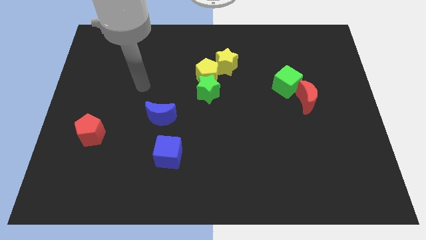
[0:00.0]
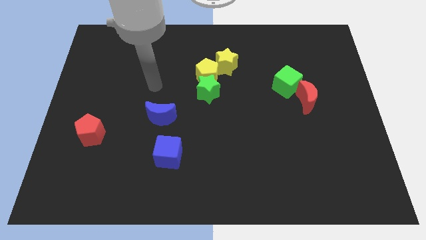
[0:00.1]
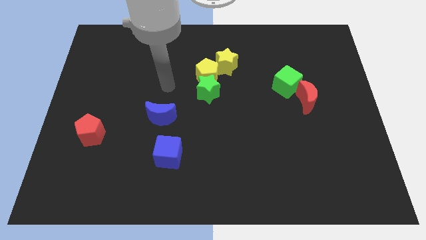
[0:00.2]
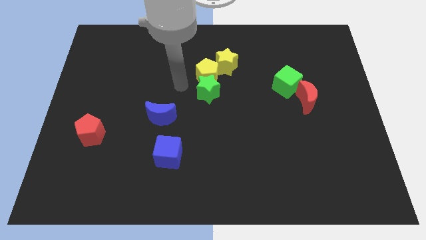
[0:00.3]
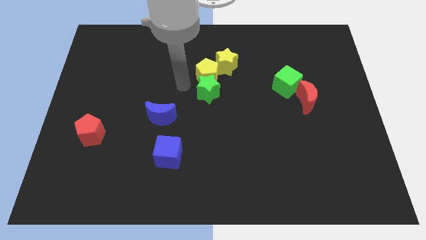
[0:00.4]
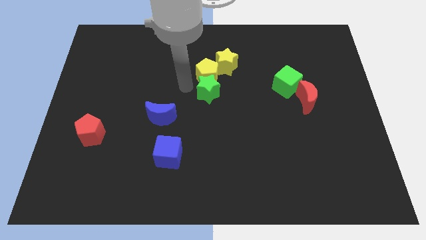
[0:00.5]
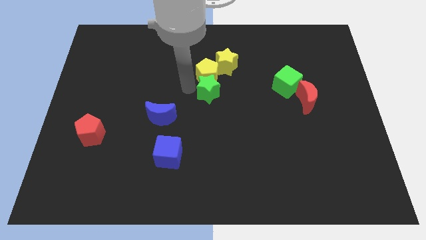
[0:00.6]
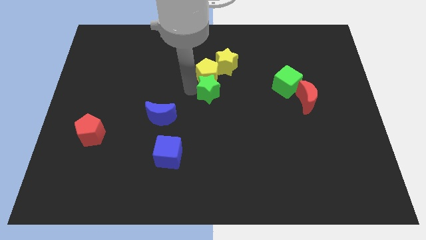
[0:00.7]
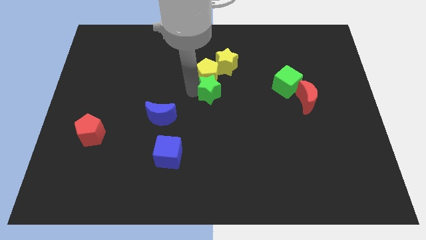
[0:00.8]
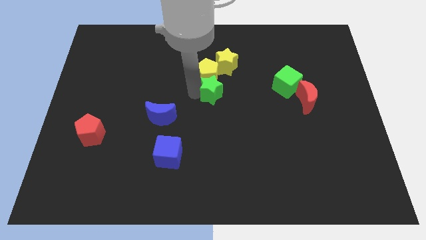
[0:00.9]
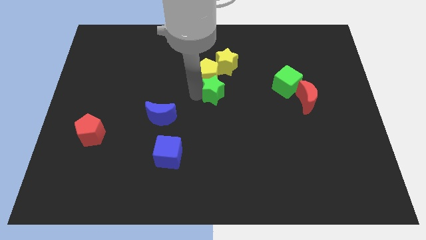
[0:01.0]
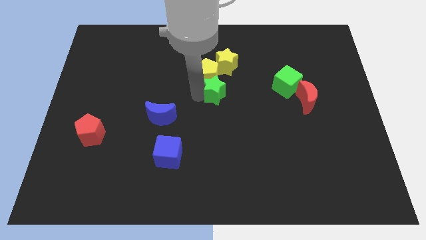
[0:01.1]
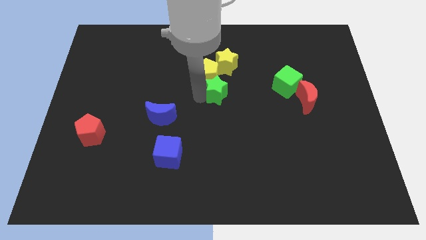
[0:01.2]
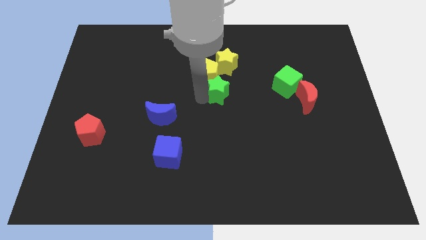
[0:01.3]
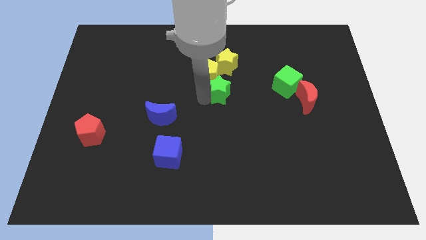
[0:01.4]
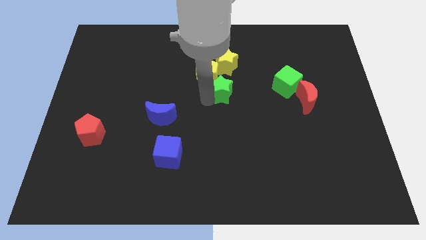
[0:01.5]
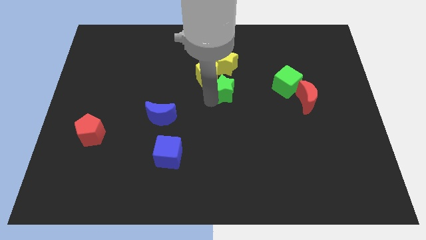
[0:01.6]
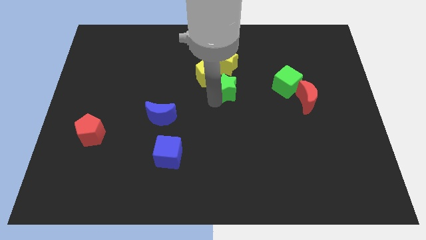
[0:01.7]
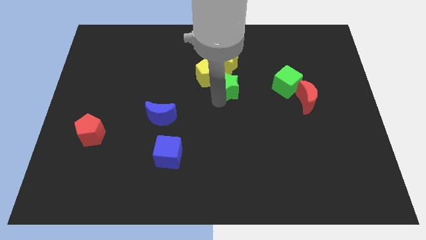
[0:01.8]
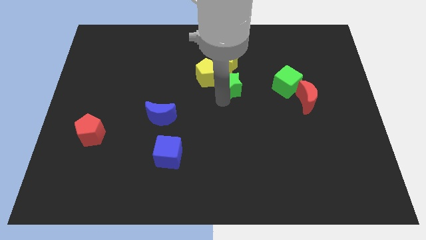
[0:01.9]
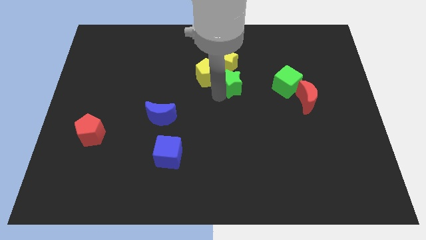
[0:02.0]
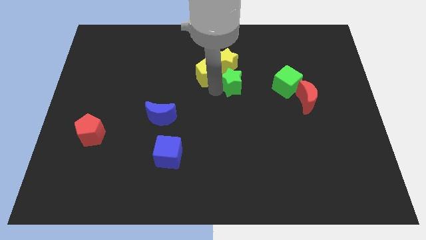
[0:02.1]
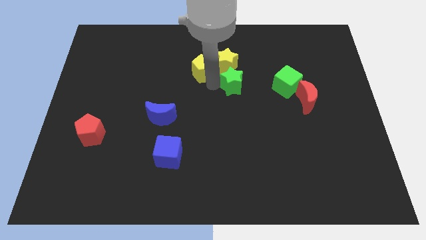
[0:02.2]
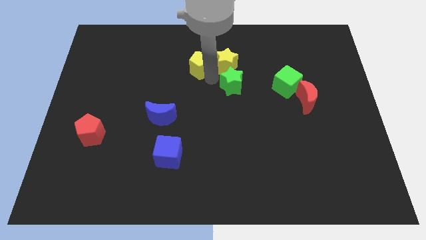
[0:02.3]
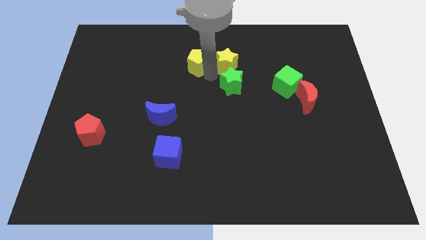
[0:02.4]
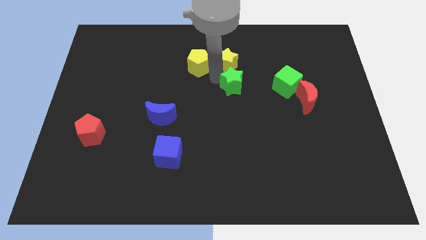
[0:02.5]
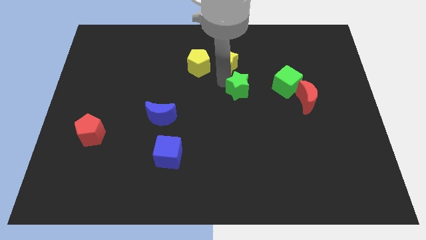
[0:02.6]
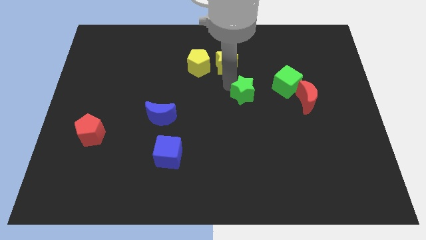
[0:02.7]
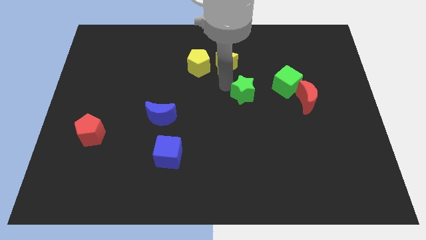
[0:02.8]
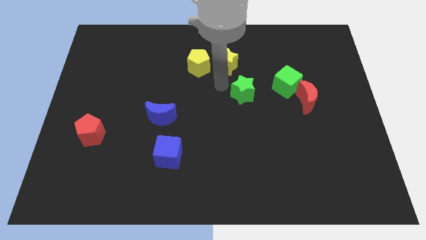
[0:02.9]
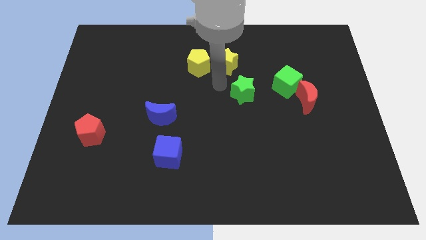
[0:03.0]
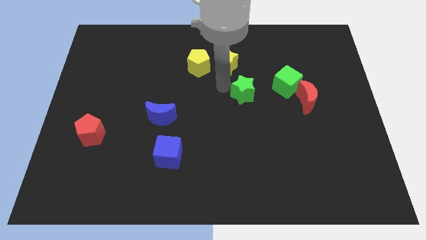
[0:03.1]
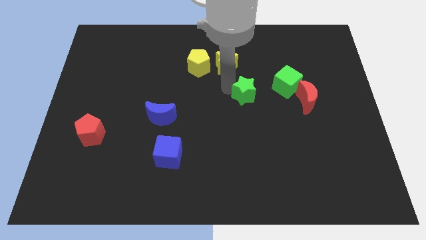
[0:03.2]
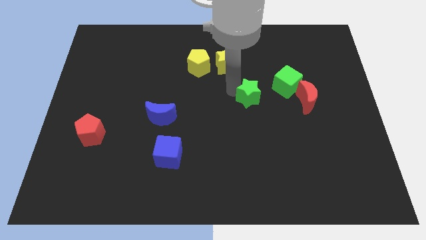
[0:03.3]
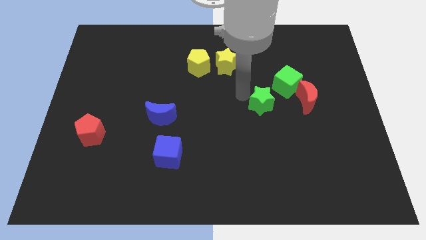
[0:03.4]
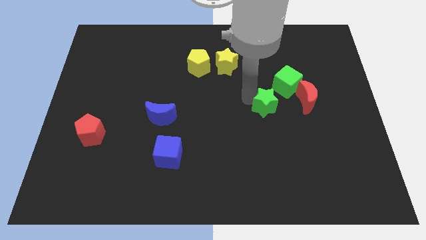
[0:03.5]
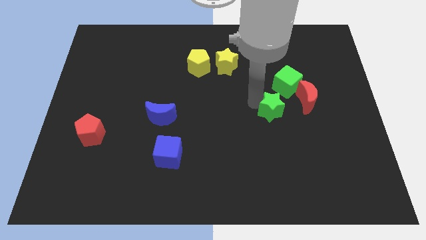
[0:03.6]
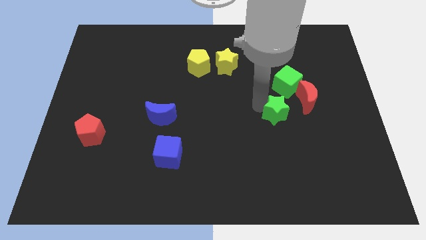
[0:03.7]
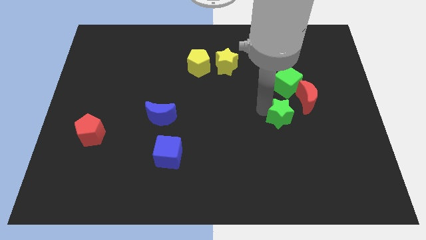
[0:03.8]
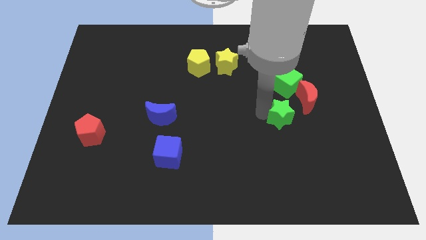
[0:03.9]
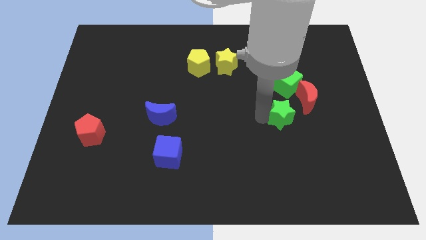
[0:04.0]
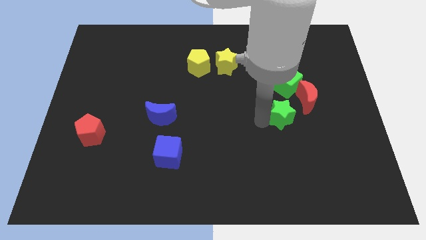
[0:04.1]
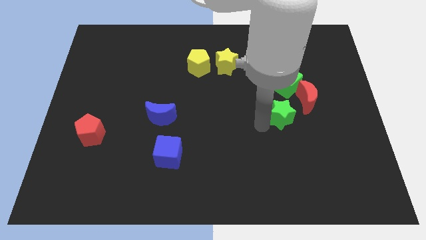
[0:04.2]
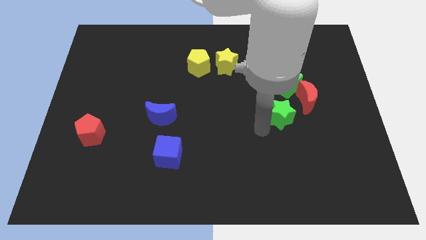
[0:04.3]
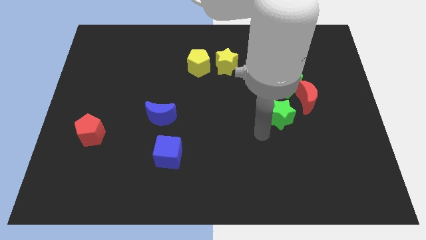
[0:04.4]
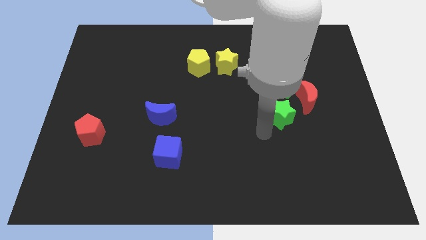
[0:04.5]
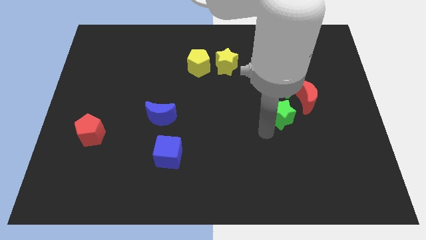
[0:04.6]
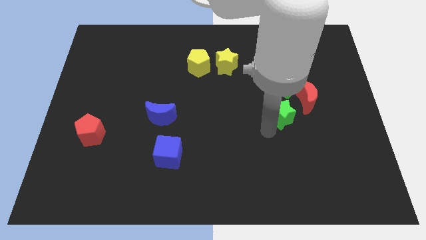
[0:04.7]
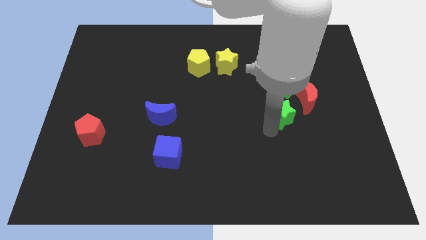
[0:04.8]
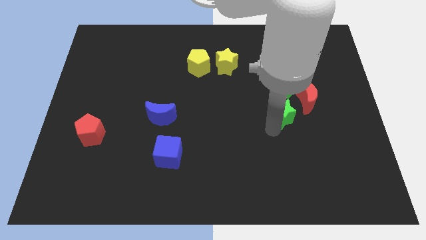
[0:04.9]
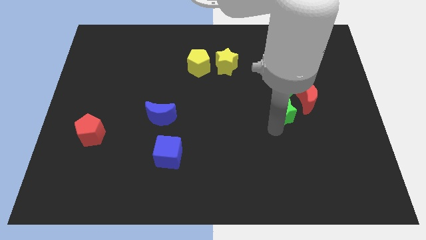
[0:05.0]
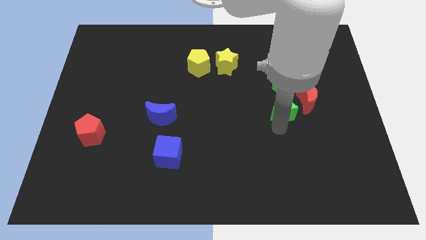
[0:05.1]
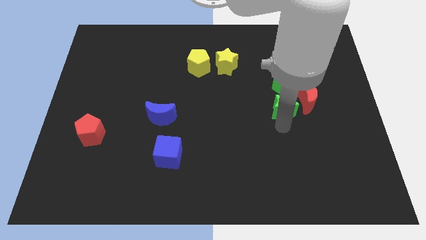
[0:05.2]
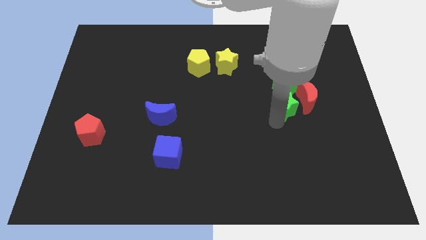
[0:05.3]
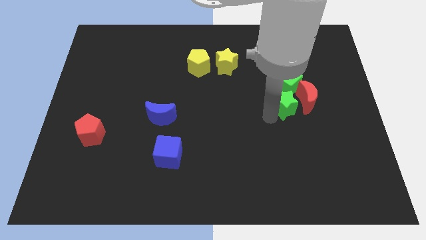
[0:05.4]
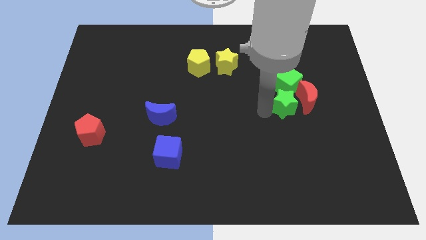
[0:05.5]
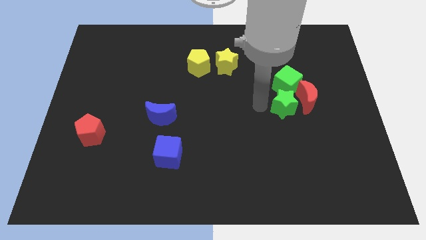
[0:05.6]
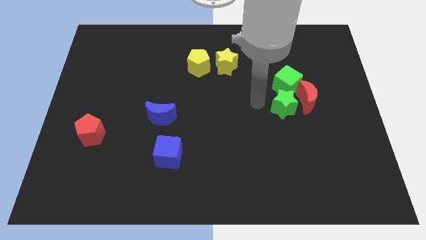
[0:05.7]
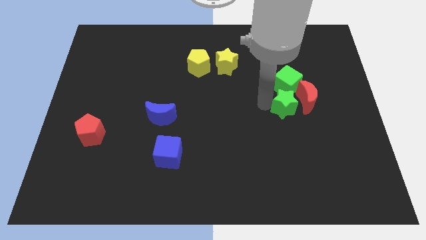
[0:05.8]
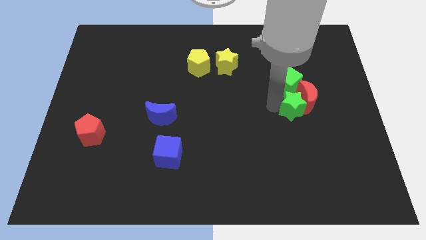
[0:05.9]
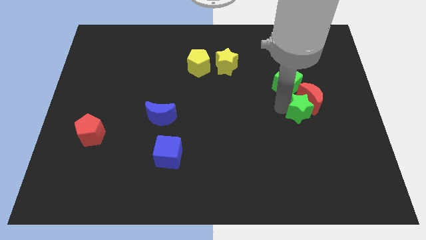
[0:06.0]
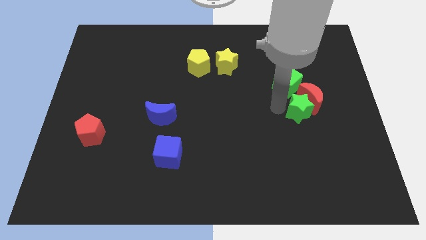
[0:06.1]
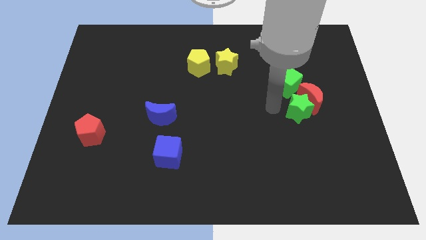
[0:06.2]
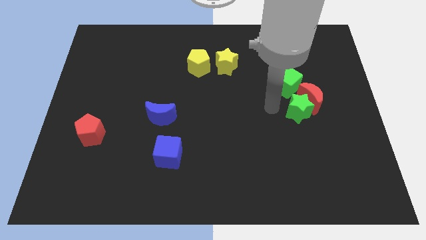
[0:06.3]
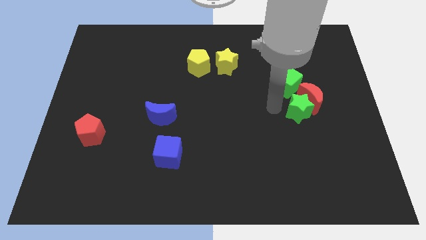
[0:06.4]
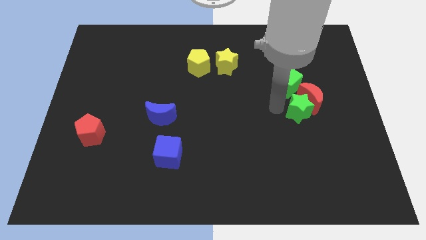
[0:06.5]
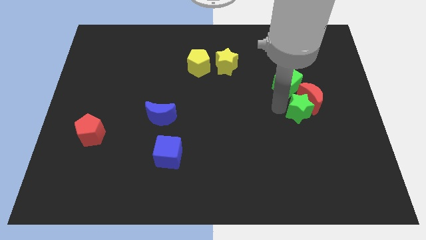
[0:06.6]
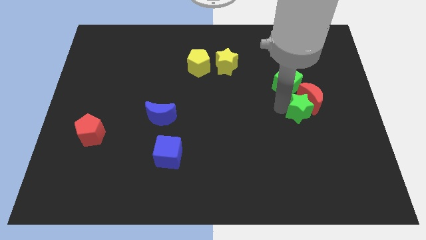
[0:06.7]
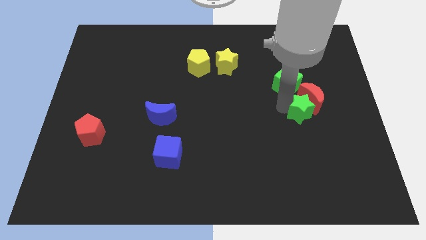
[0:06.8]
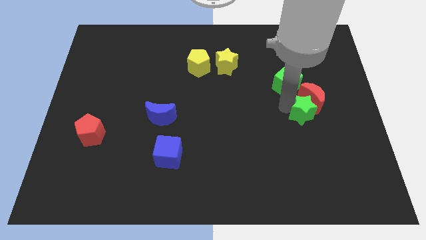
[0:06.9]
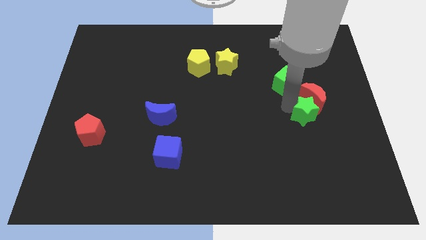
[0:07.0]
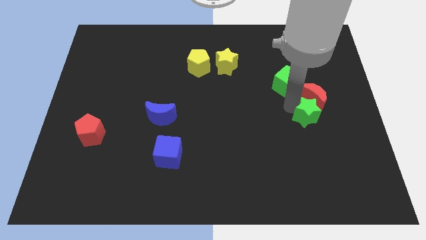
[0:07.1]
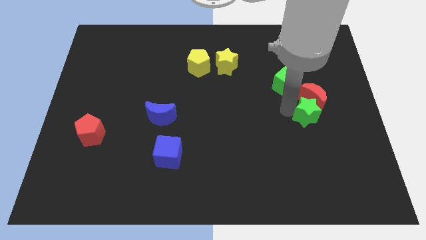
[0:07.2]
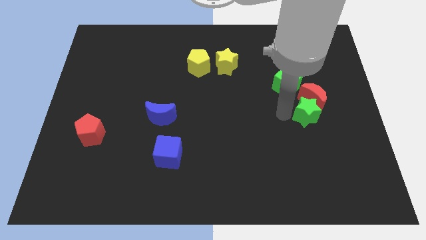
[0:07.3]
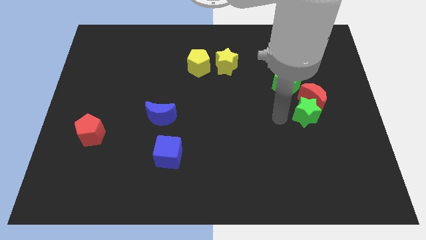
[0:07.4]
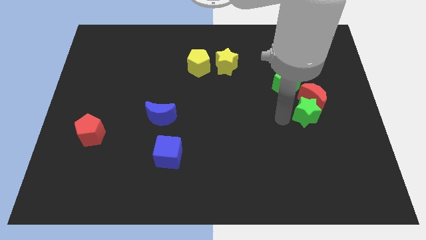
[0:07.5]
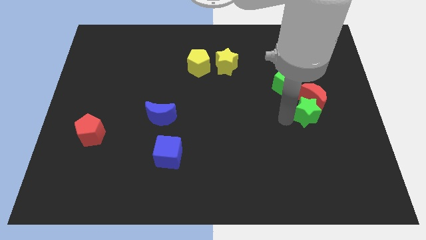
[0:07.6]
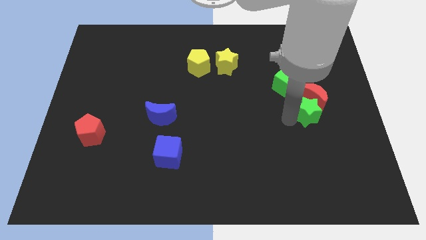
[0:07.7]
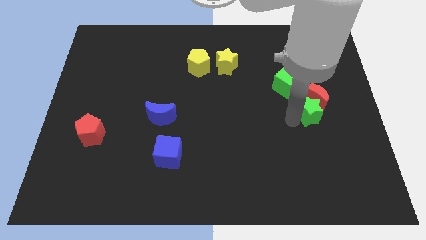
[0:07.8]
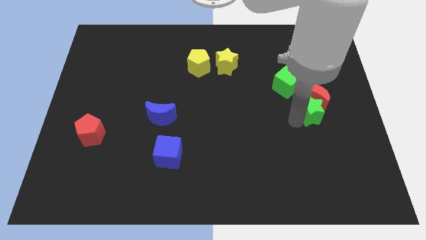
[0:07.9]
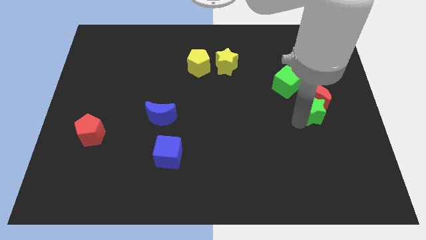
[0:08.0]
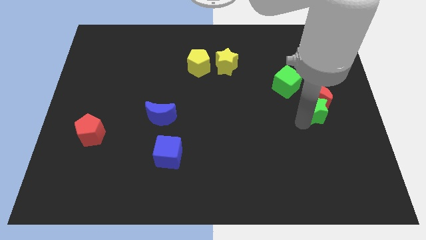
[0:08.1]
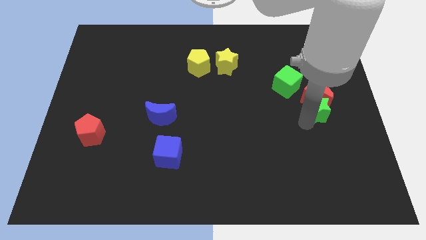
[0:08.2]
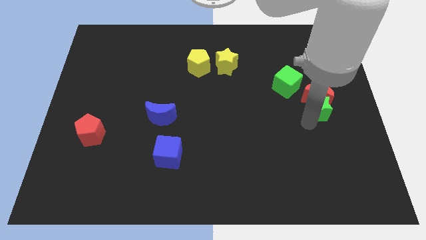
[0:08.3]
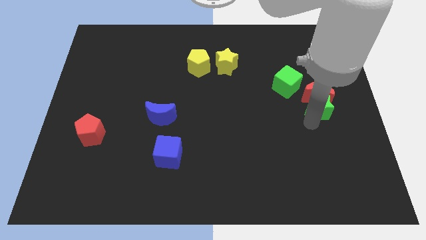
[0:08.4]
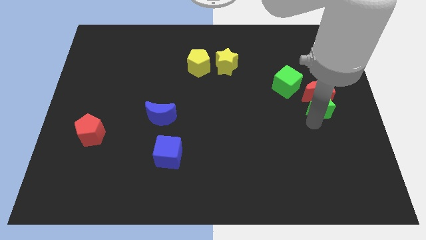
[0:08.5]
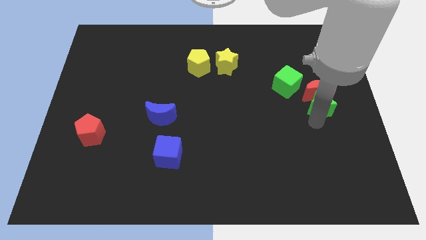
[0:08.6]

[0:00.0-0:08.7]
push the green star to the right side
